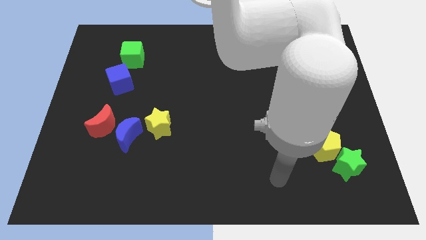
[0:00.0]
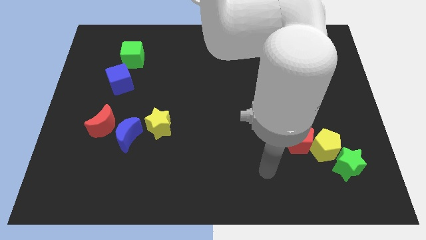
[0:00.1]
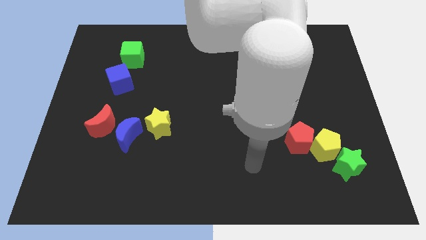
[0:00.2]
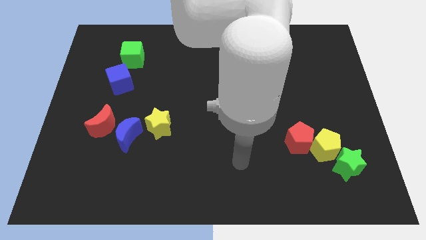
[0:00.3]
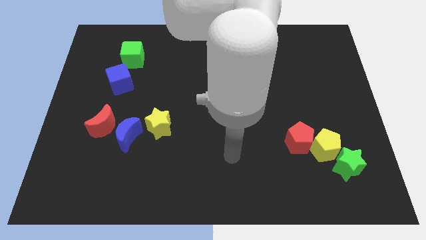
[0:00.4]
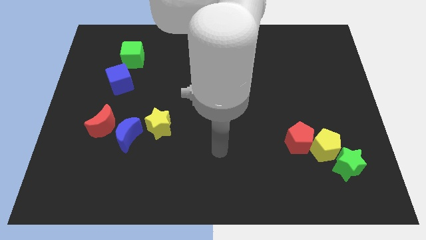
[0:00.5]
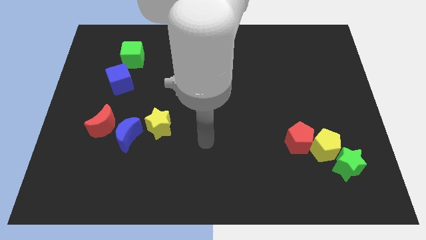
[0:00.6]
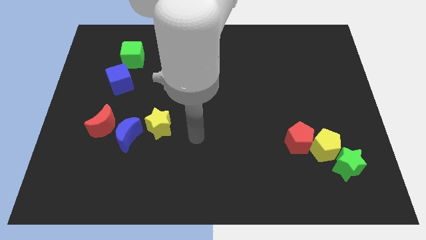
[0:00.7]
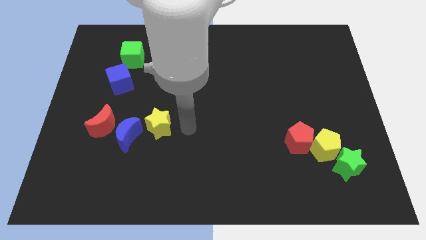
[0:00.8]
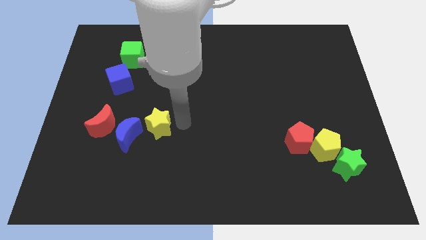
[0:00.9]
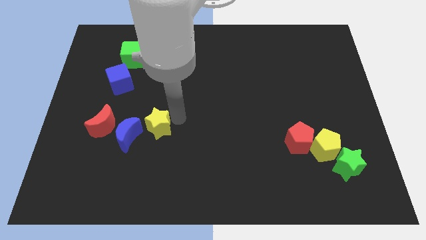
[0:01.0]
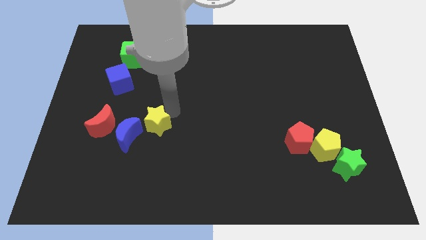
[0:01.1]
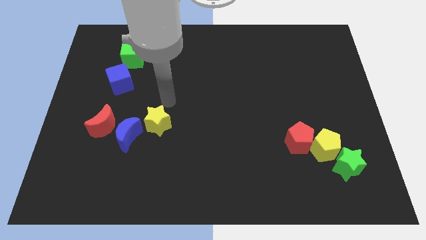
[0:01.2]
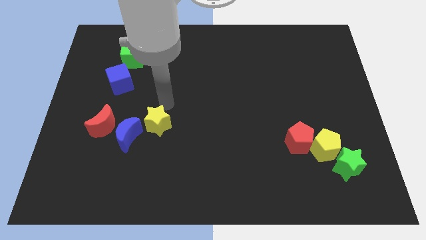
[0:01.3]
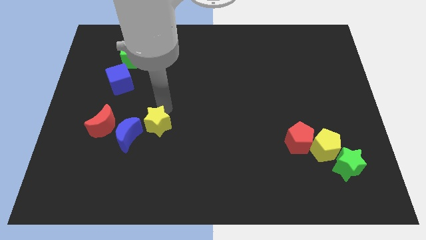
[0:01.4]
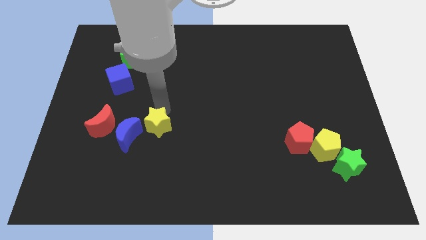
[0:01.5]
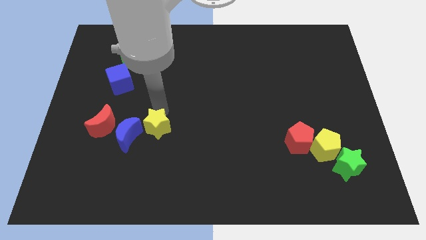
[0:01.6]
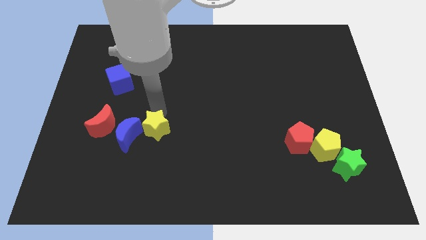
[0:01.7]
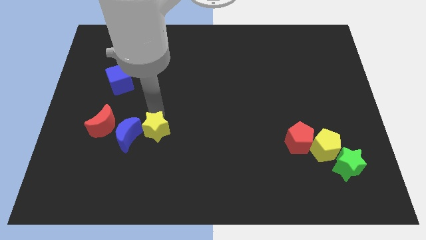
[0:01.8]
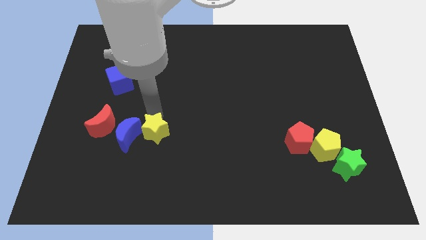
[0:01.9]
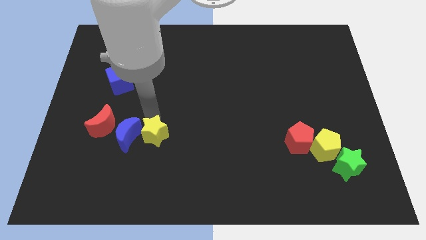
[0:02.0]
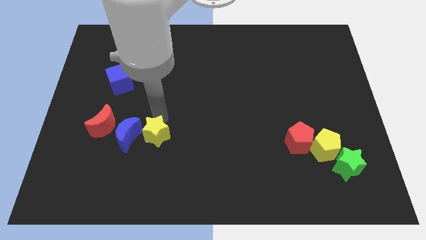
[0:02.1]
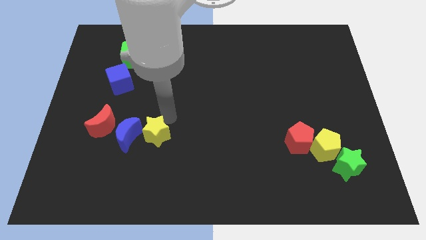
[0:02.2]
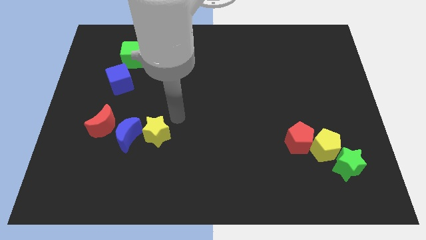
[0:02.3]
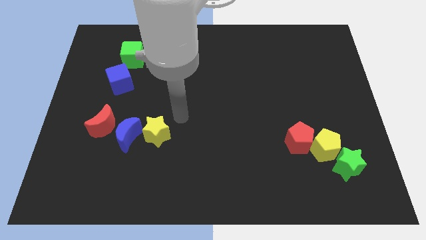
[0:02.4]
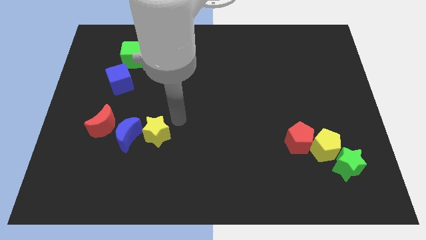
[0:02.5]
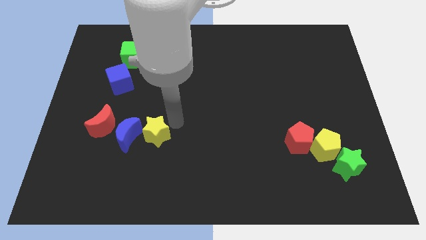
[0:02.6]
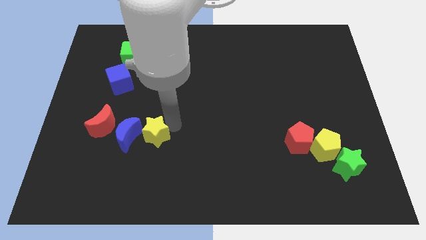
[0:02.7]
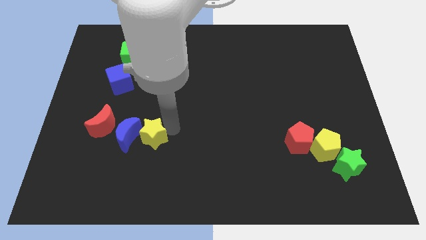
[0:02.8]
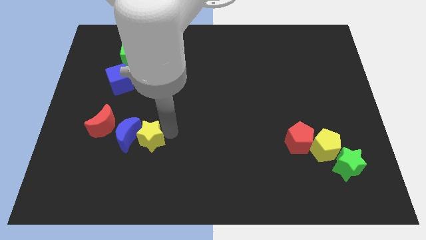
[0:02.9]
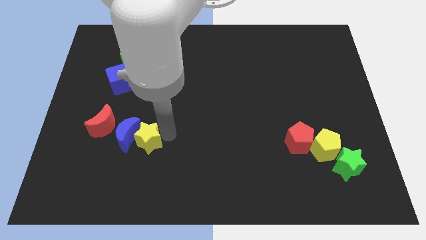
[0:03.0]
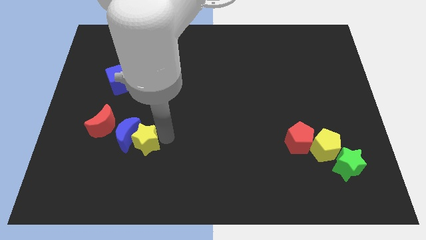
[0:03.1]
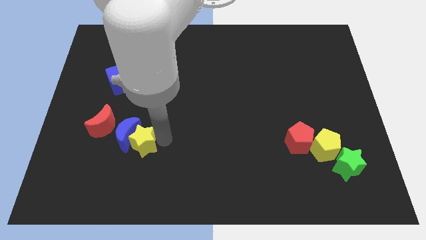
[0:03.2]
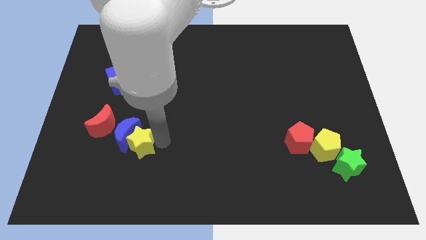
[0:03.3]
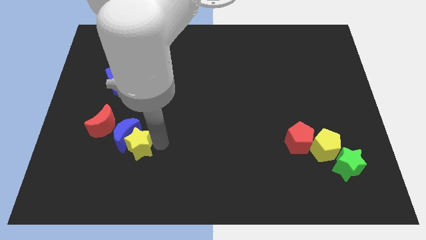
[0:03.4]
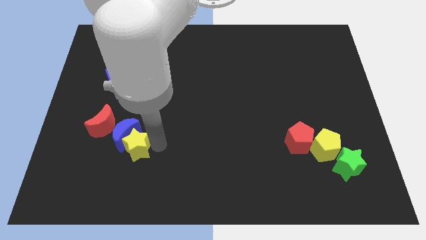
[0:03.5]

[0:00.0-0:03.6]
slightly move the yellow star downwards and then to the left

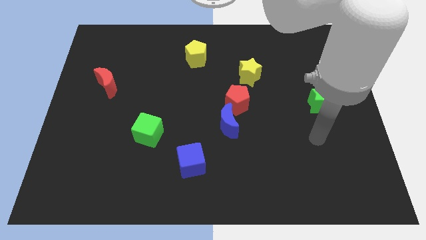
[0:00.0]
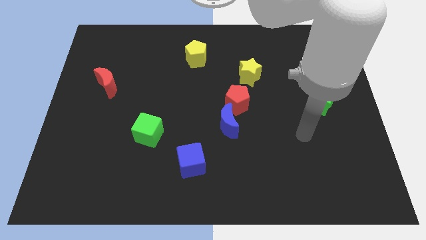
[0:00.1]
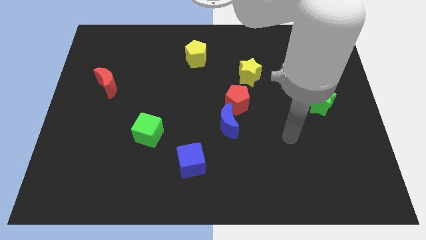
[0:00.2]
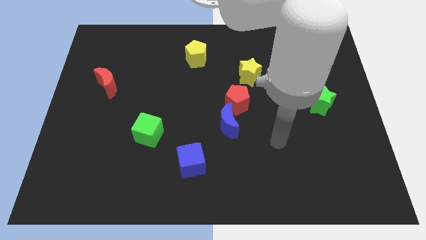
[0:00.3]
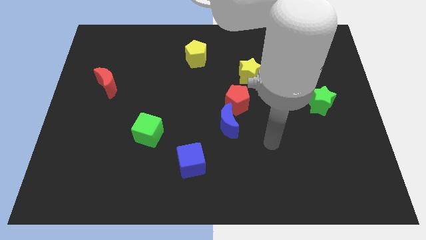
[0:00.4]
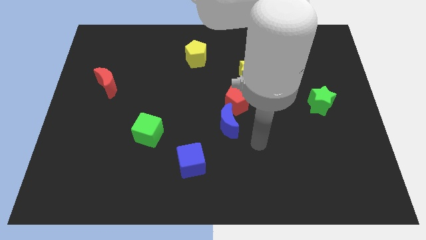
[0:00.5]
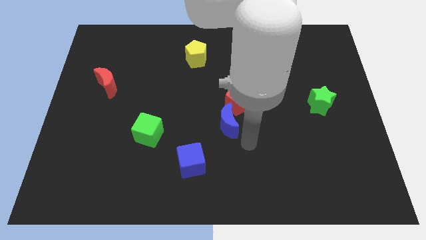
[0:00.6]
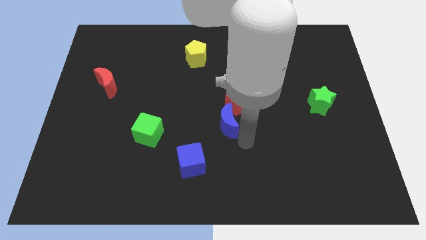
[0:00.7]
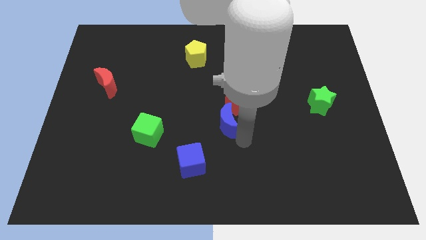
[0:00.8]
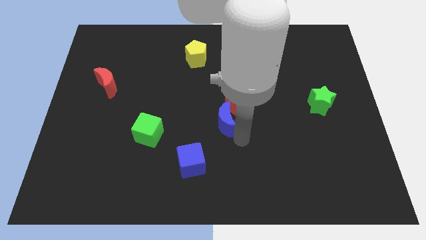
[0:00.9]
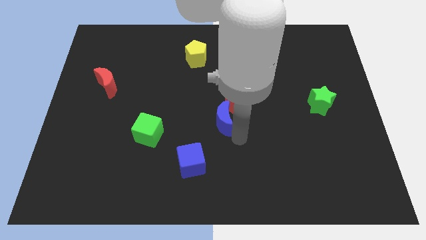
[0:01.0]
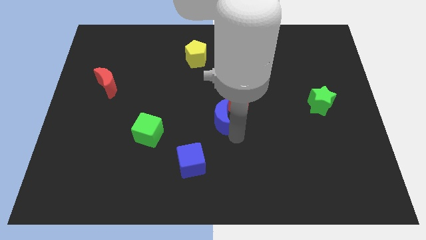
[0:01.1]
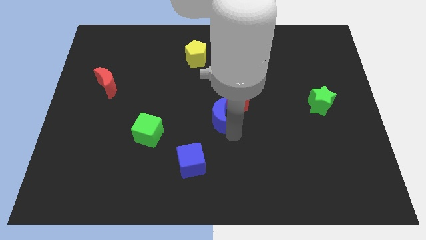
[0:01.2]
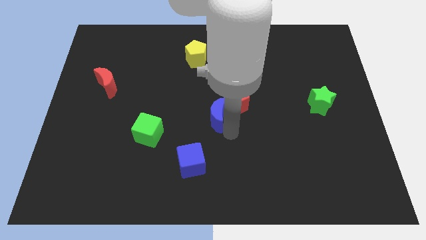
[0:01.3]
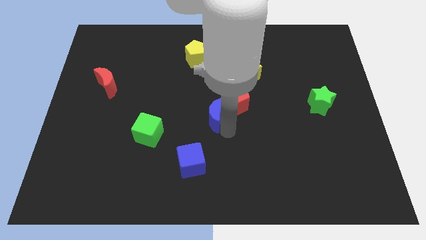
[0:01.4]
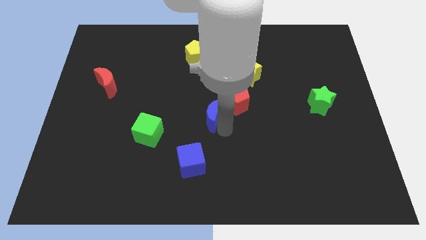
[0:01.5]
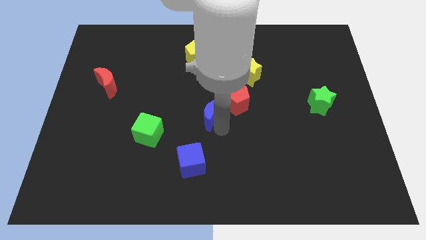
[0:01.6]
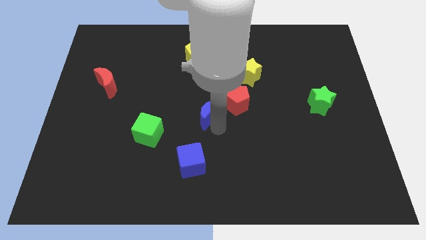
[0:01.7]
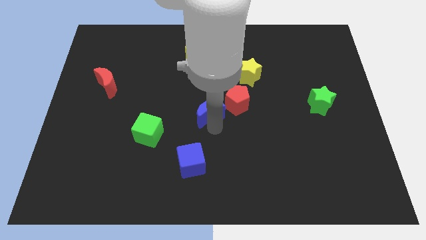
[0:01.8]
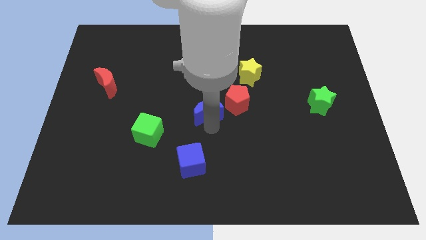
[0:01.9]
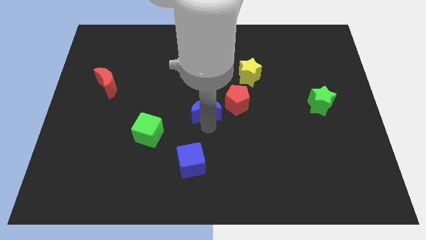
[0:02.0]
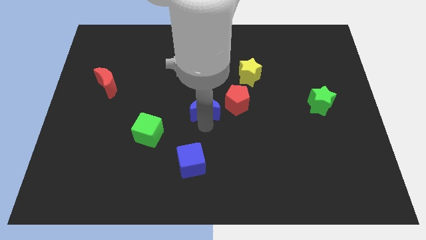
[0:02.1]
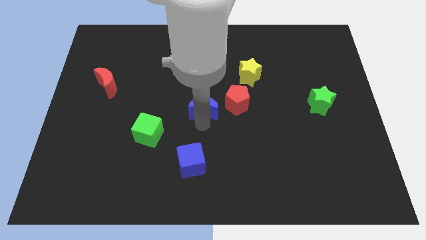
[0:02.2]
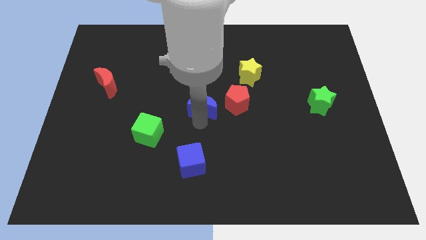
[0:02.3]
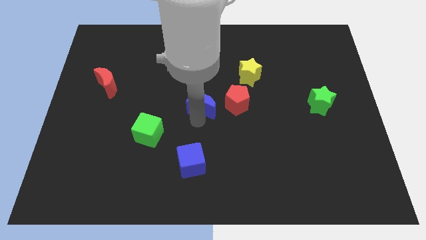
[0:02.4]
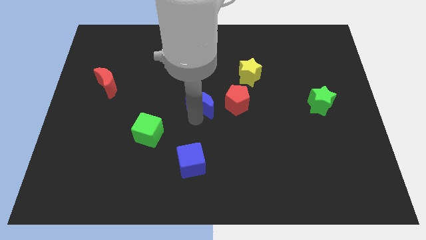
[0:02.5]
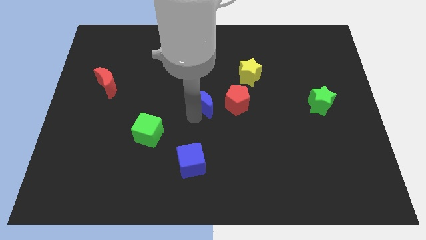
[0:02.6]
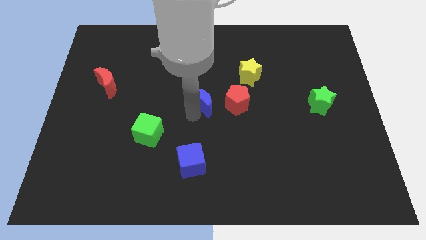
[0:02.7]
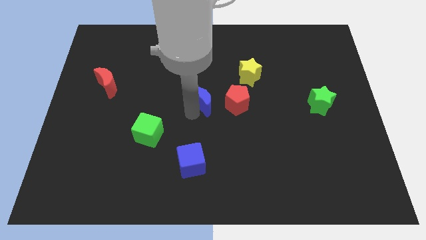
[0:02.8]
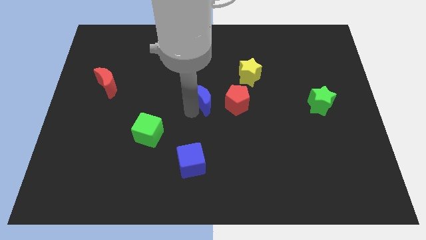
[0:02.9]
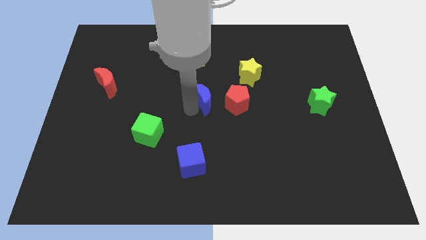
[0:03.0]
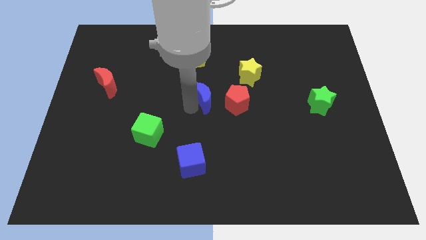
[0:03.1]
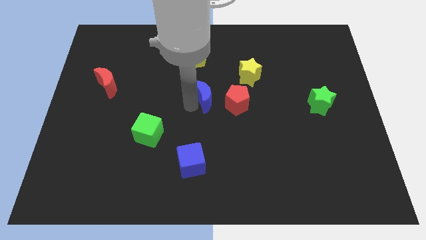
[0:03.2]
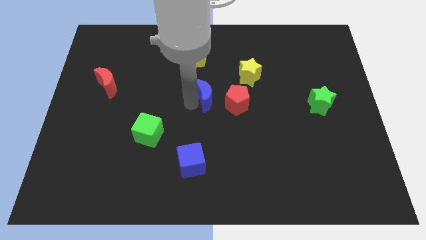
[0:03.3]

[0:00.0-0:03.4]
slightly slide the blue moon up

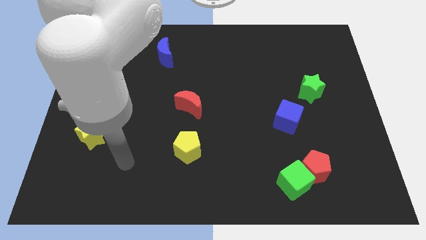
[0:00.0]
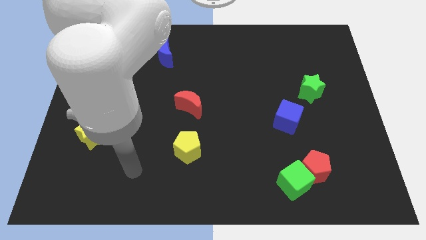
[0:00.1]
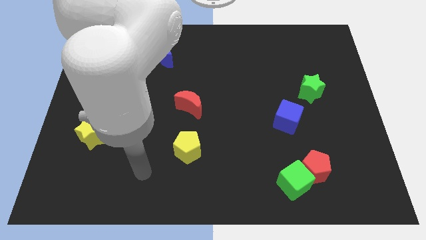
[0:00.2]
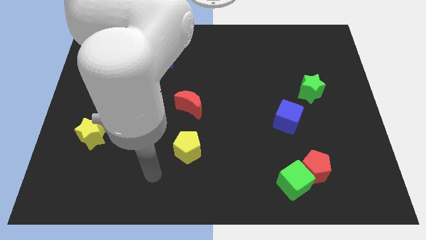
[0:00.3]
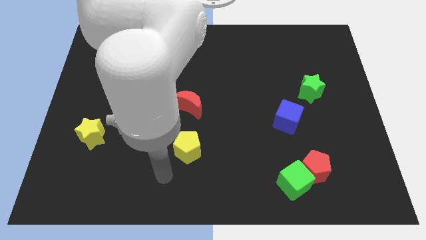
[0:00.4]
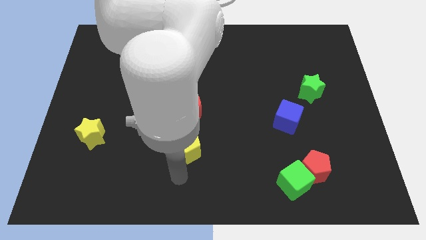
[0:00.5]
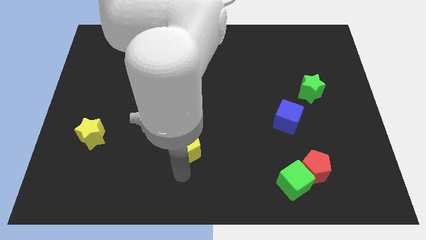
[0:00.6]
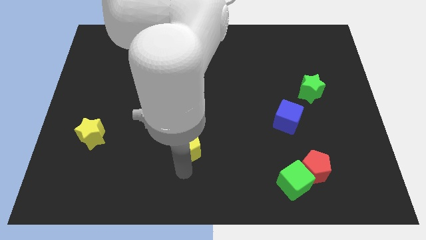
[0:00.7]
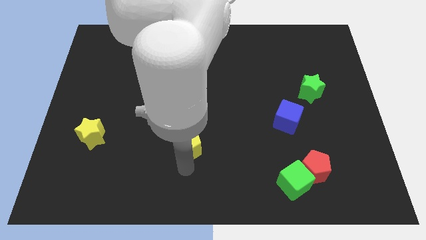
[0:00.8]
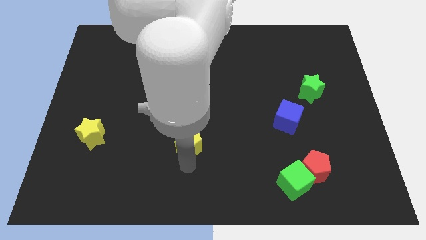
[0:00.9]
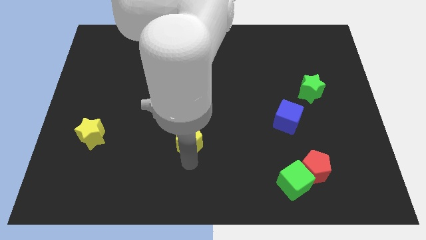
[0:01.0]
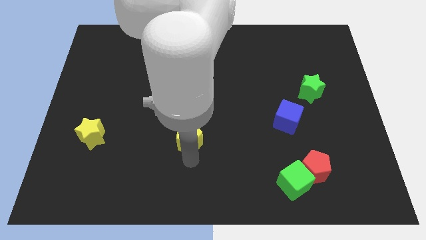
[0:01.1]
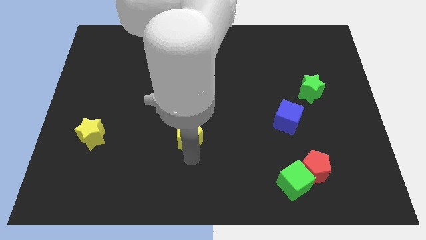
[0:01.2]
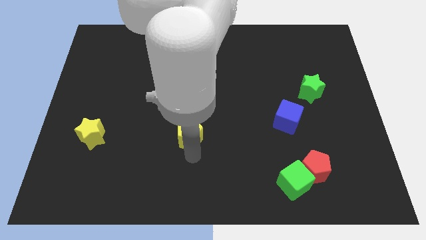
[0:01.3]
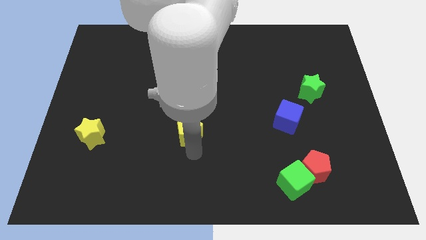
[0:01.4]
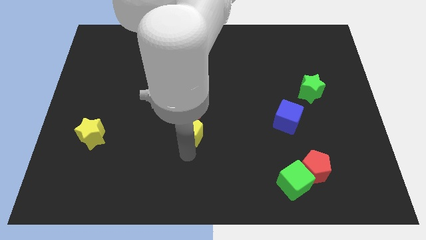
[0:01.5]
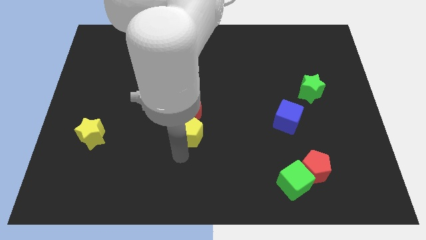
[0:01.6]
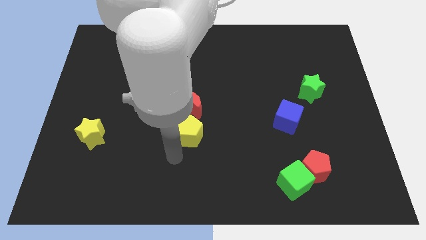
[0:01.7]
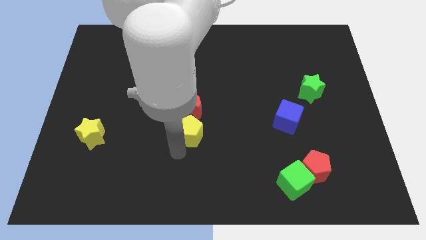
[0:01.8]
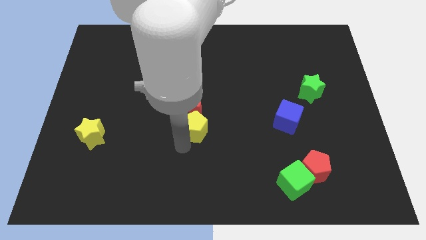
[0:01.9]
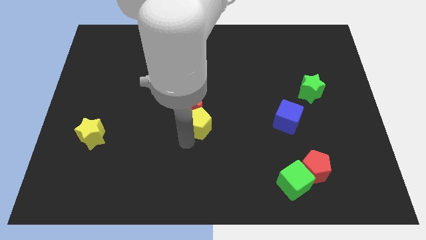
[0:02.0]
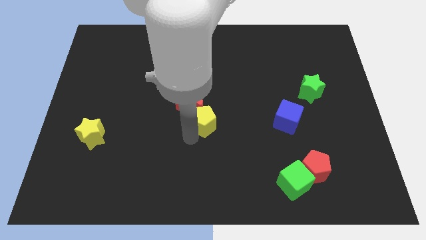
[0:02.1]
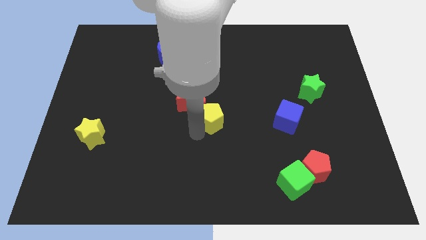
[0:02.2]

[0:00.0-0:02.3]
slide the yellow pentagon up a little
